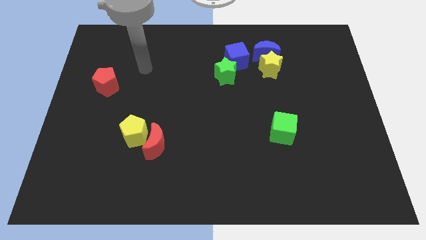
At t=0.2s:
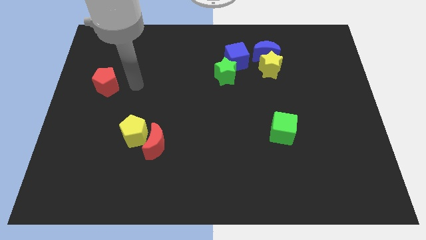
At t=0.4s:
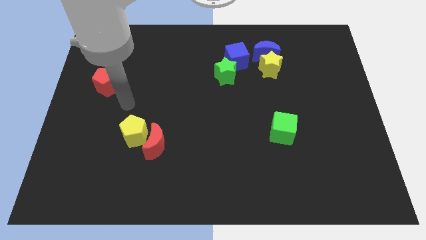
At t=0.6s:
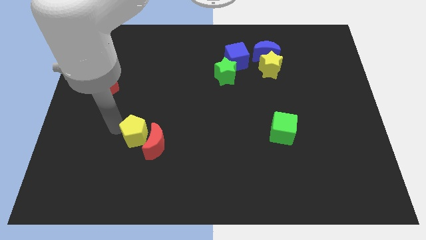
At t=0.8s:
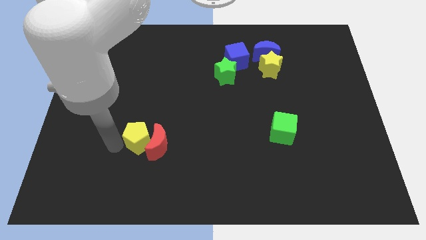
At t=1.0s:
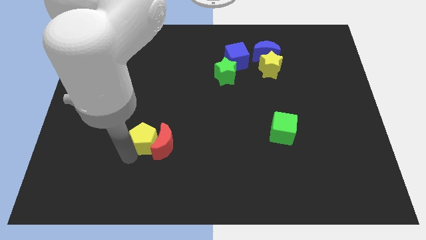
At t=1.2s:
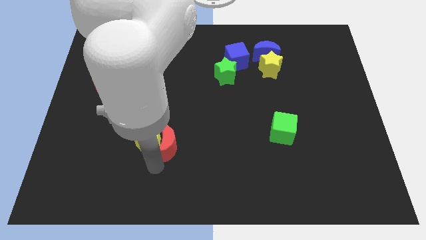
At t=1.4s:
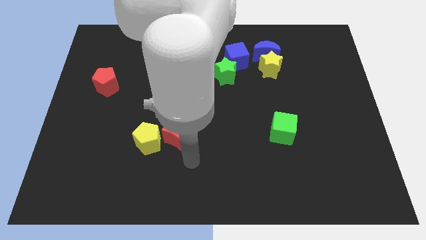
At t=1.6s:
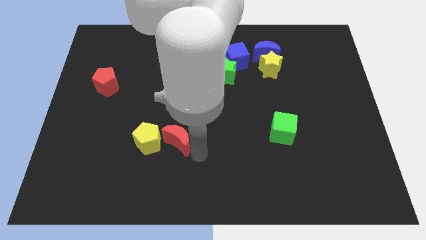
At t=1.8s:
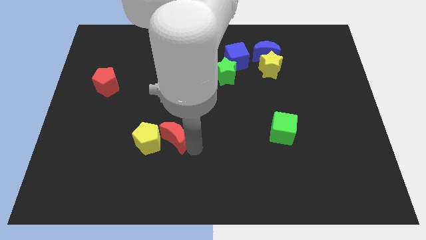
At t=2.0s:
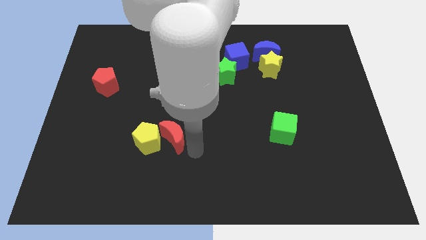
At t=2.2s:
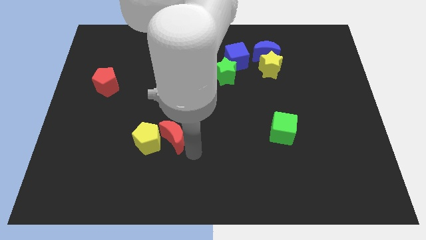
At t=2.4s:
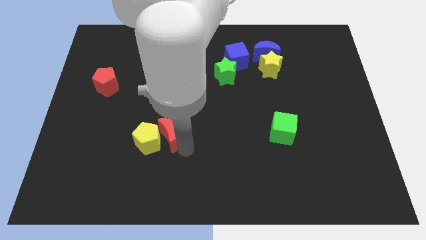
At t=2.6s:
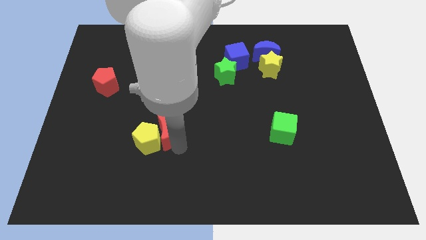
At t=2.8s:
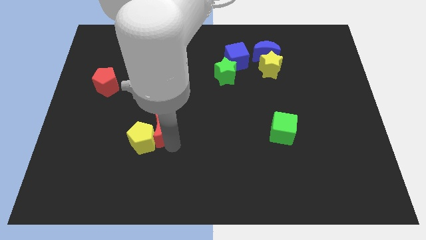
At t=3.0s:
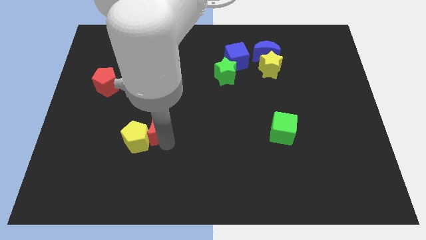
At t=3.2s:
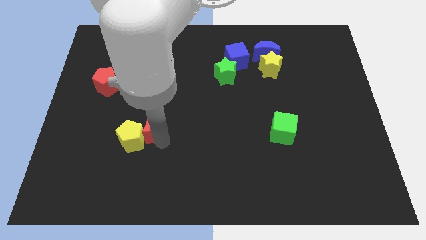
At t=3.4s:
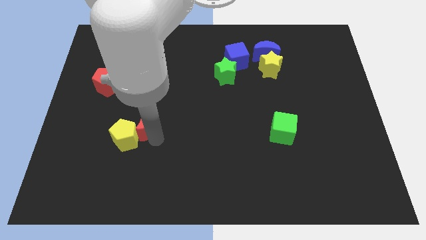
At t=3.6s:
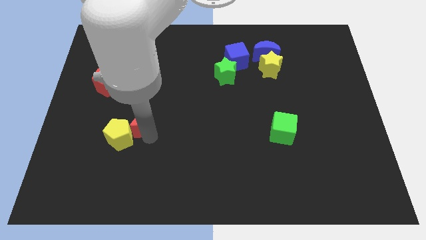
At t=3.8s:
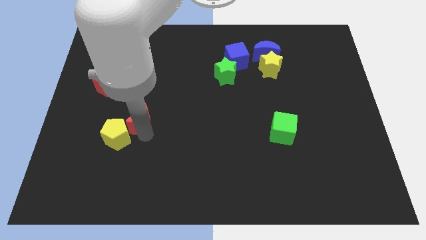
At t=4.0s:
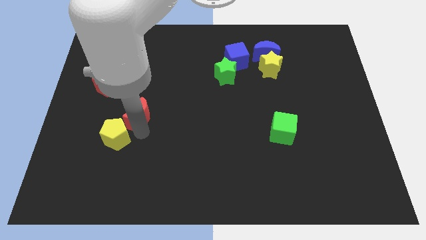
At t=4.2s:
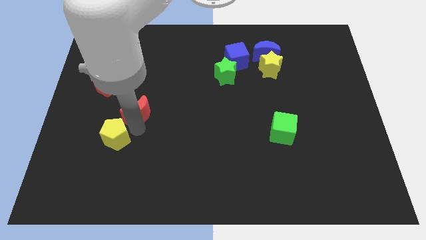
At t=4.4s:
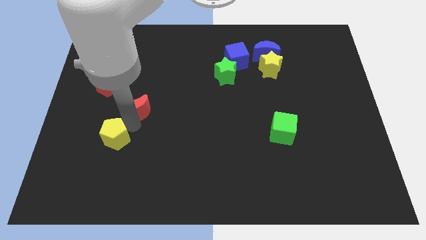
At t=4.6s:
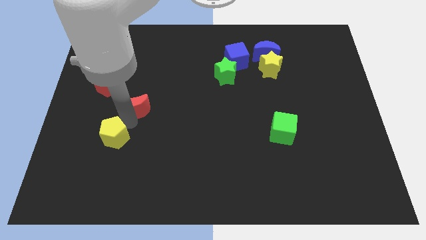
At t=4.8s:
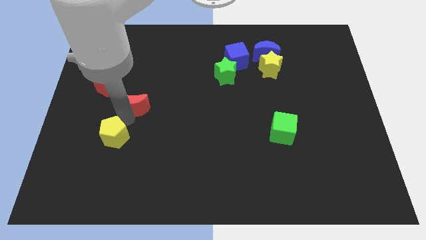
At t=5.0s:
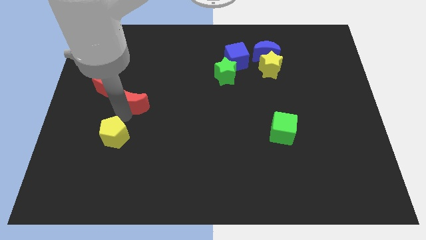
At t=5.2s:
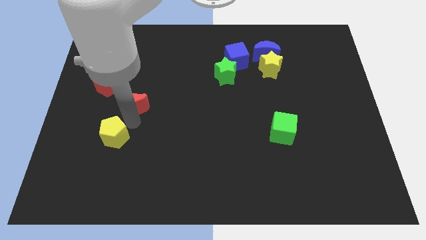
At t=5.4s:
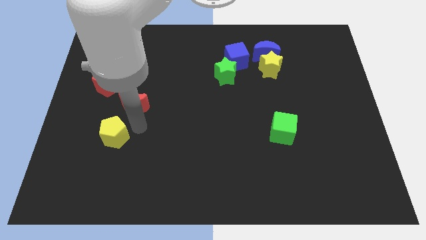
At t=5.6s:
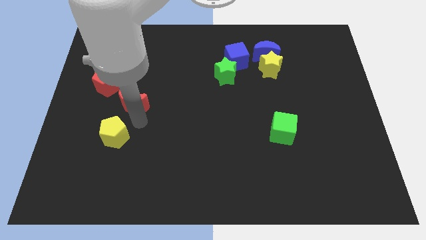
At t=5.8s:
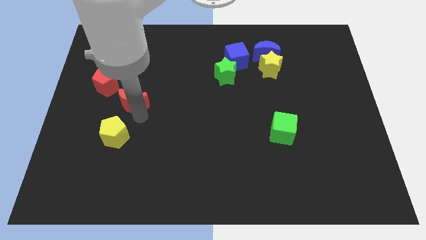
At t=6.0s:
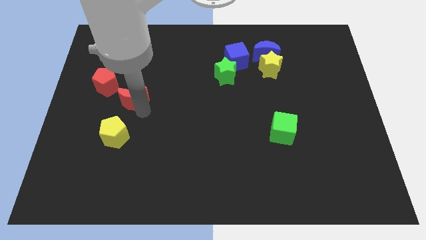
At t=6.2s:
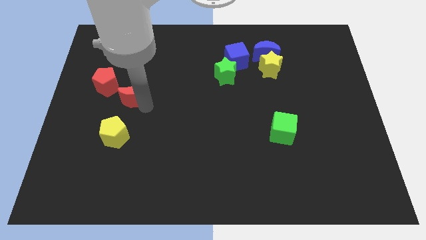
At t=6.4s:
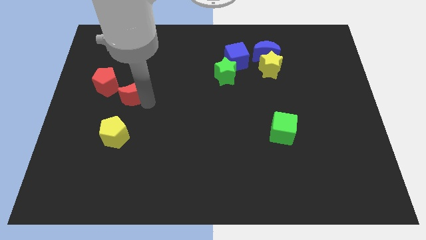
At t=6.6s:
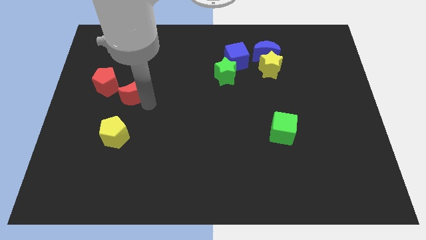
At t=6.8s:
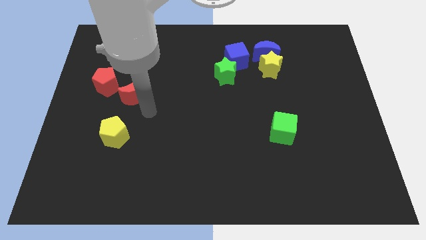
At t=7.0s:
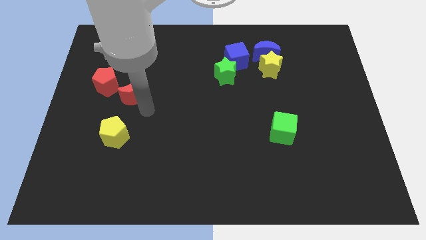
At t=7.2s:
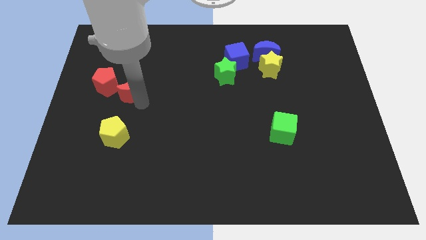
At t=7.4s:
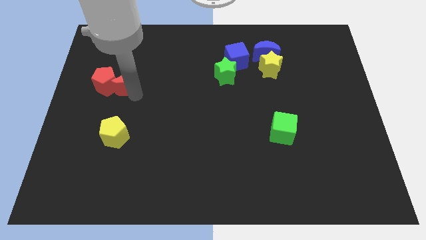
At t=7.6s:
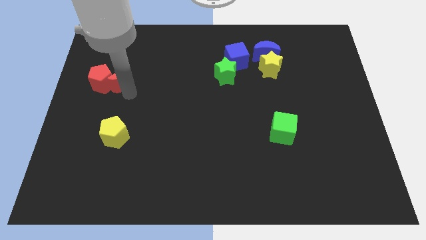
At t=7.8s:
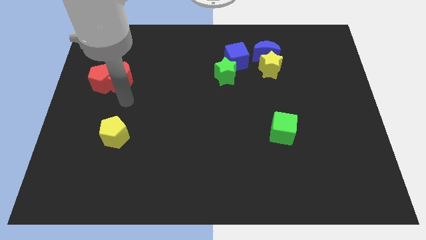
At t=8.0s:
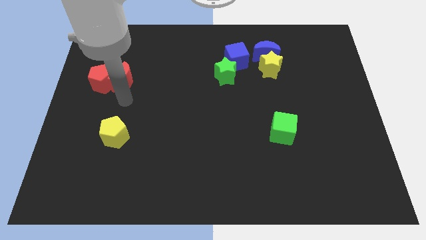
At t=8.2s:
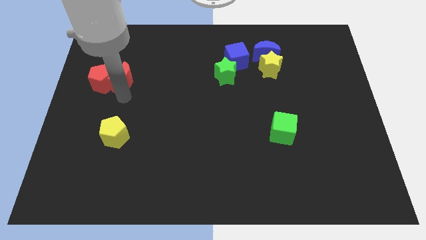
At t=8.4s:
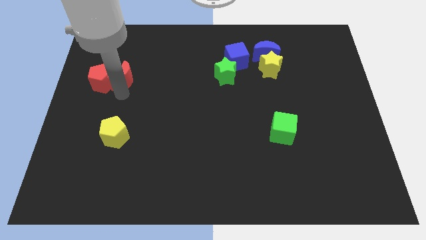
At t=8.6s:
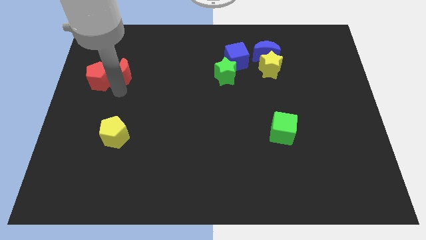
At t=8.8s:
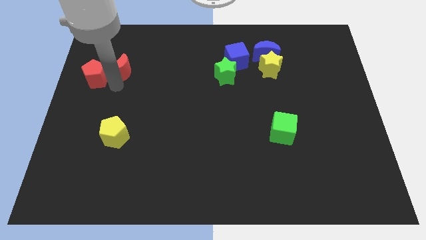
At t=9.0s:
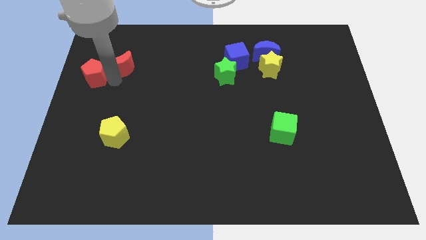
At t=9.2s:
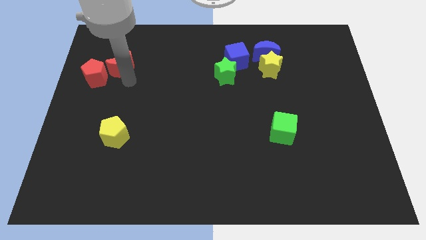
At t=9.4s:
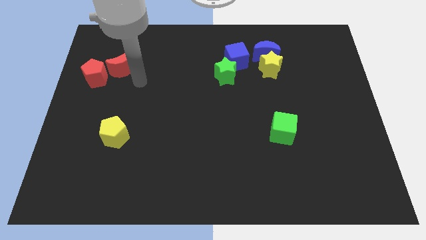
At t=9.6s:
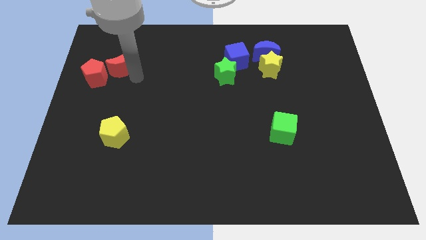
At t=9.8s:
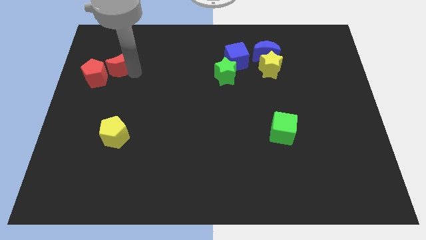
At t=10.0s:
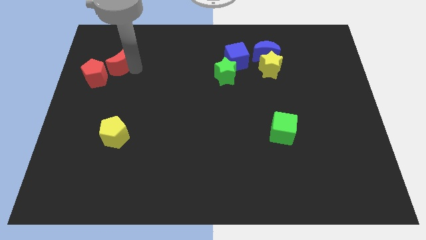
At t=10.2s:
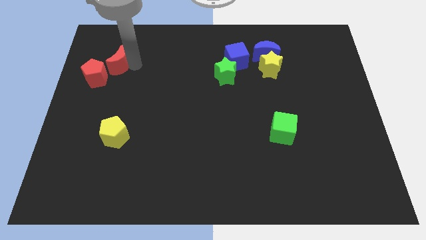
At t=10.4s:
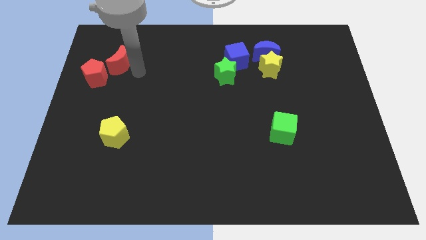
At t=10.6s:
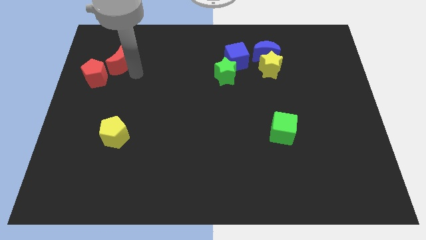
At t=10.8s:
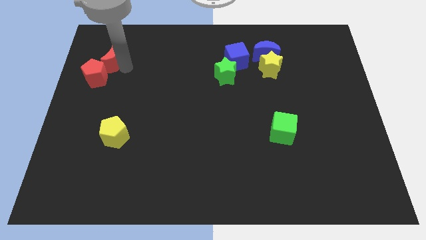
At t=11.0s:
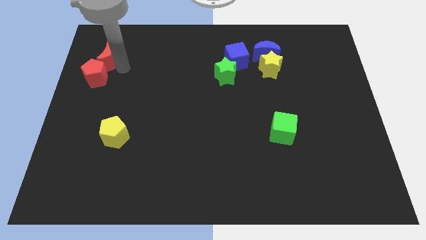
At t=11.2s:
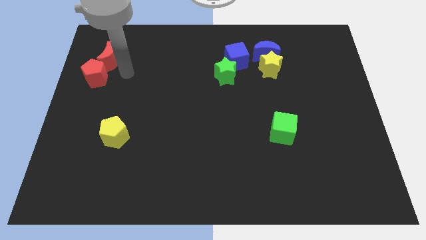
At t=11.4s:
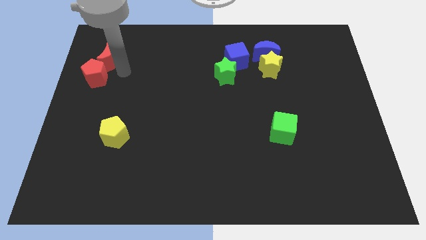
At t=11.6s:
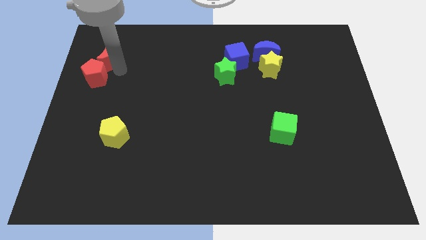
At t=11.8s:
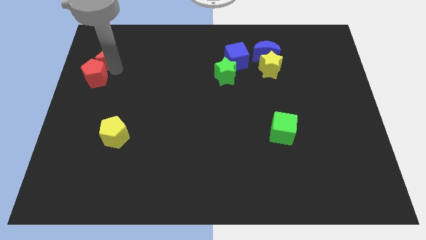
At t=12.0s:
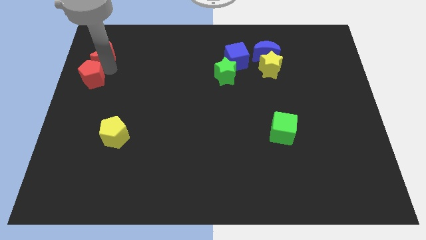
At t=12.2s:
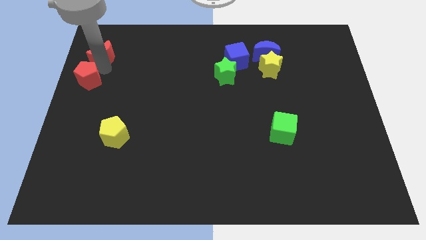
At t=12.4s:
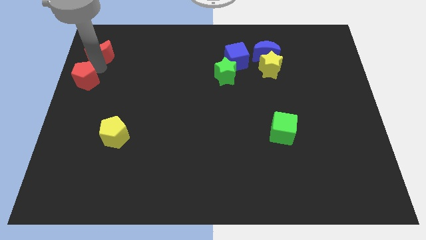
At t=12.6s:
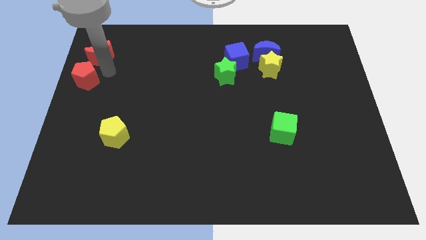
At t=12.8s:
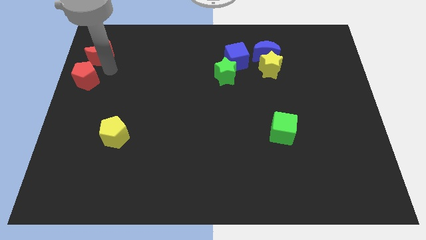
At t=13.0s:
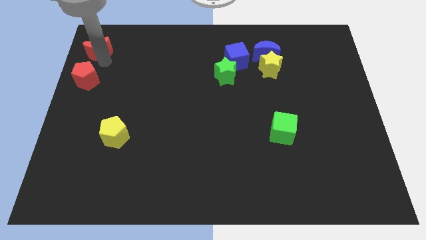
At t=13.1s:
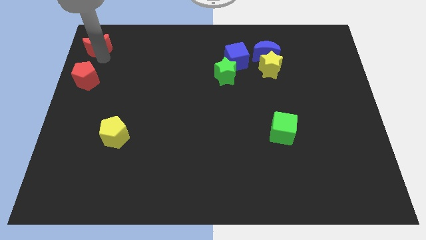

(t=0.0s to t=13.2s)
push the red moon to the top left of the board

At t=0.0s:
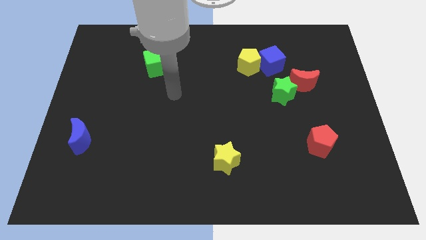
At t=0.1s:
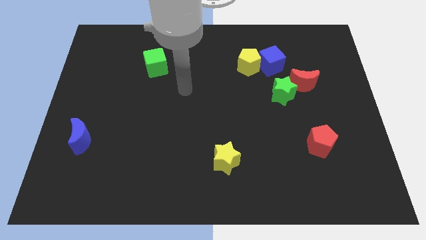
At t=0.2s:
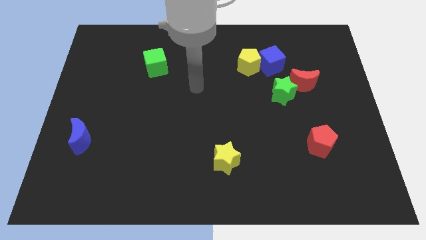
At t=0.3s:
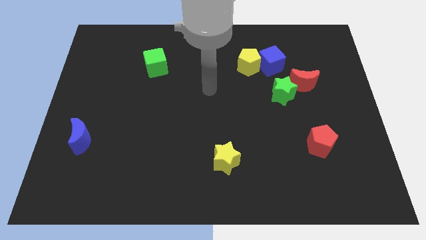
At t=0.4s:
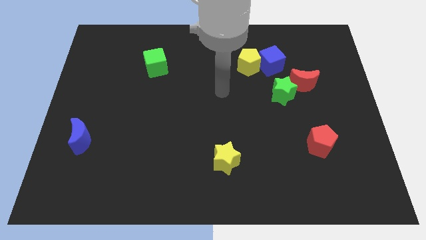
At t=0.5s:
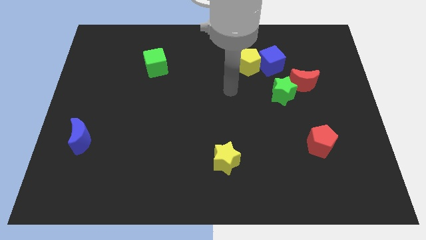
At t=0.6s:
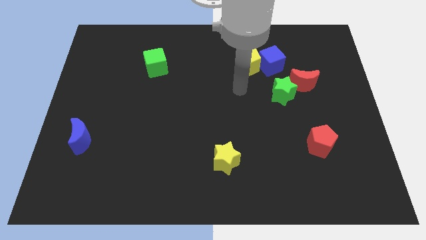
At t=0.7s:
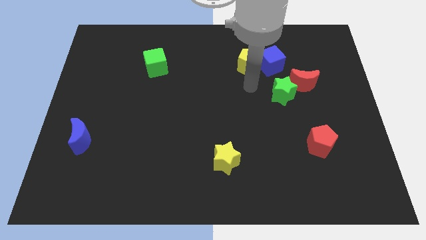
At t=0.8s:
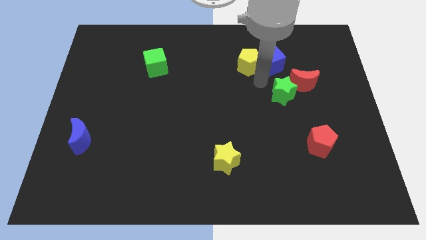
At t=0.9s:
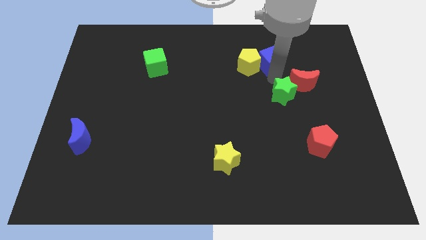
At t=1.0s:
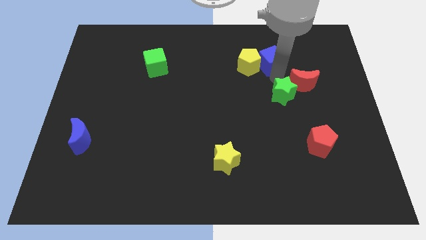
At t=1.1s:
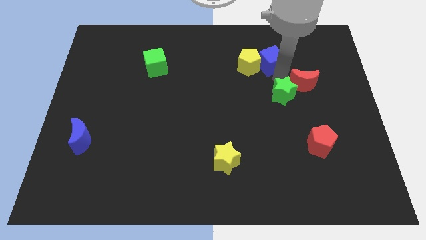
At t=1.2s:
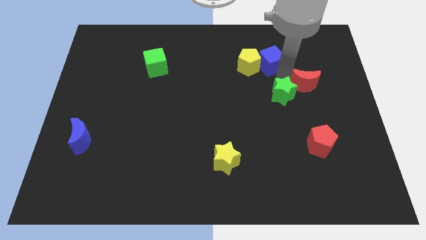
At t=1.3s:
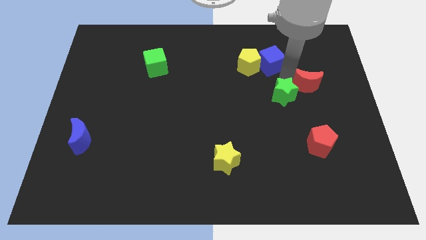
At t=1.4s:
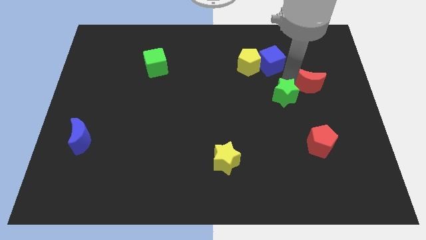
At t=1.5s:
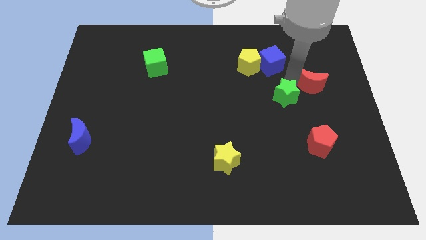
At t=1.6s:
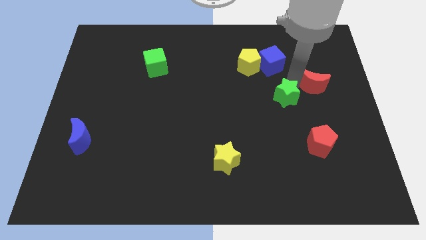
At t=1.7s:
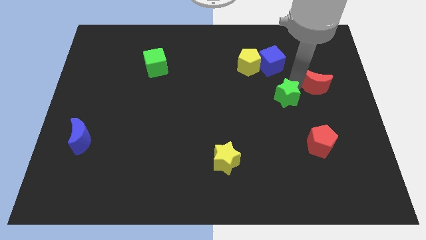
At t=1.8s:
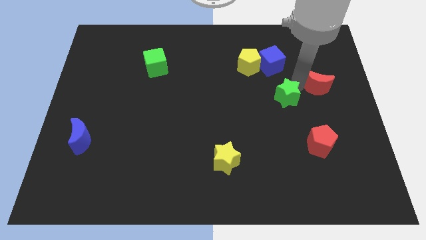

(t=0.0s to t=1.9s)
move the red moon to the right side of the board
